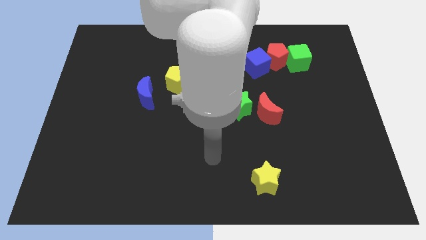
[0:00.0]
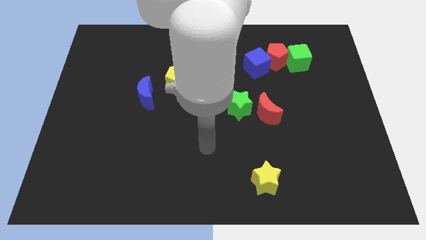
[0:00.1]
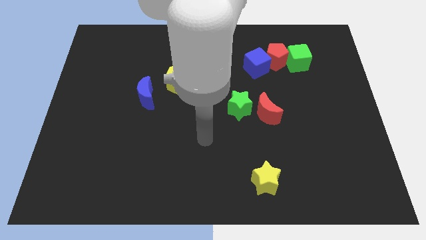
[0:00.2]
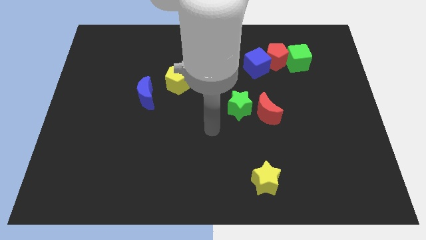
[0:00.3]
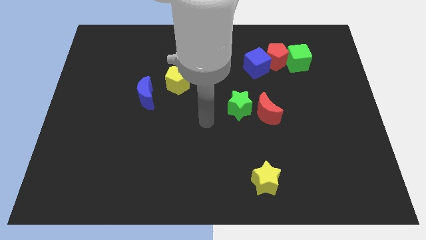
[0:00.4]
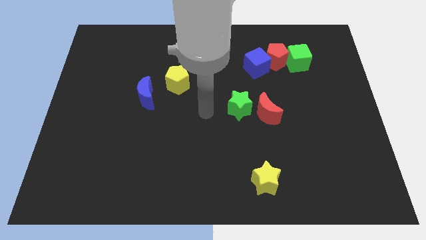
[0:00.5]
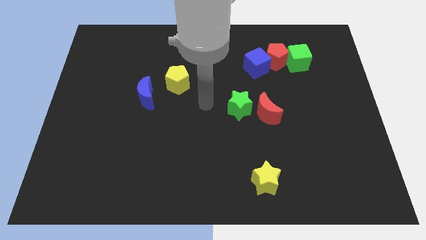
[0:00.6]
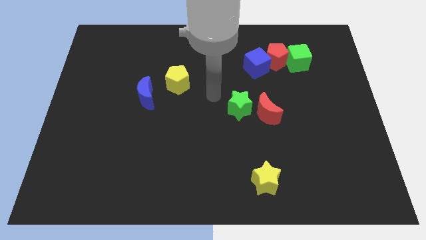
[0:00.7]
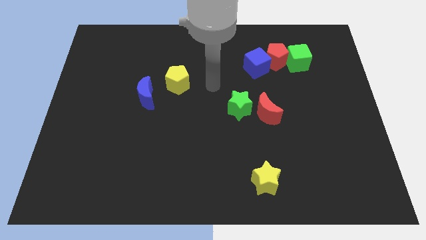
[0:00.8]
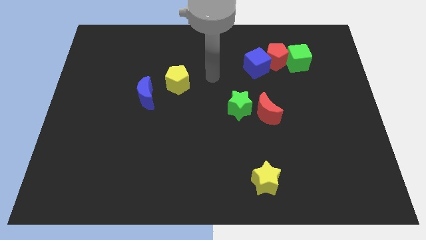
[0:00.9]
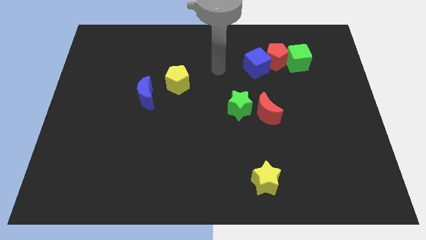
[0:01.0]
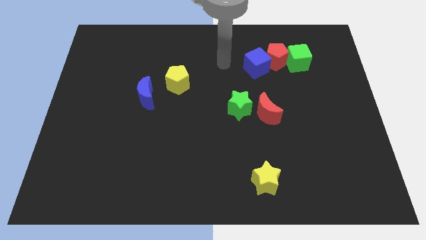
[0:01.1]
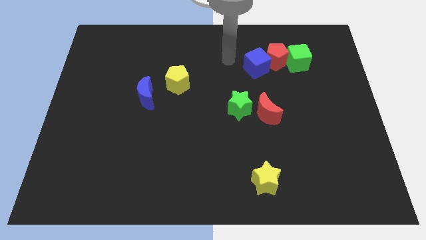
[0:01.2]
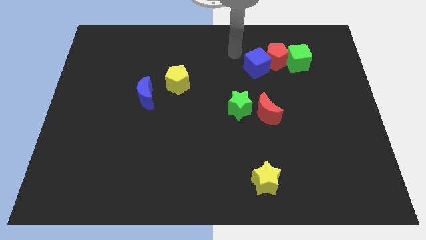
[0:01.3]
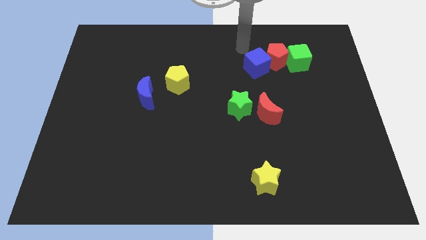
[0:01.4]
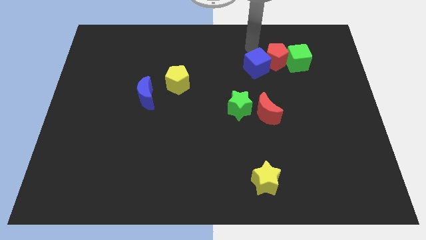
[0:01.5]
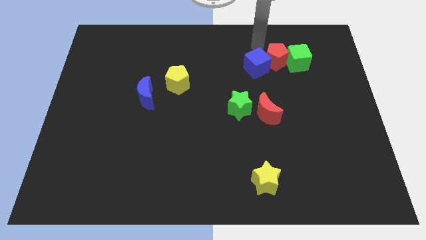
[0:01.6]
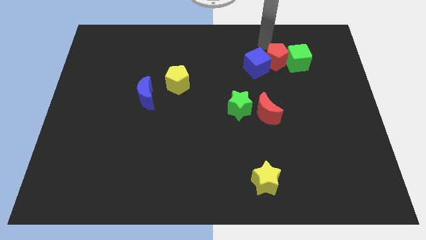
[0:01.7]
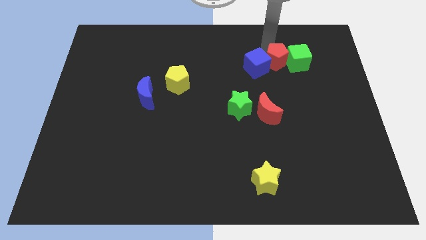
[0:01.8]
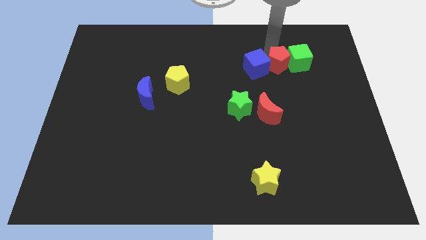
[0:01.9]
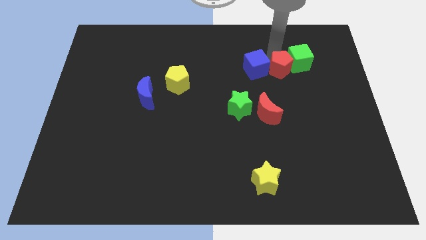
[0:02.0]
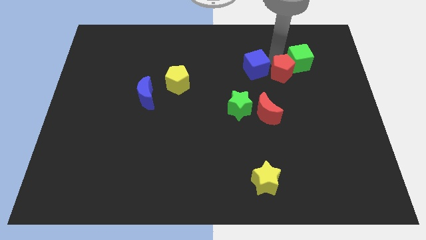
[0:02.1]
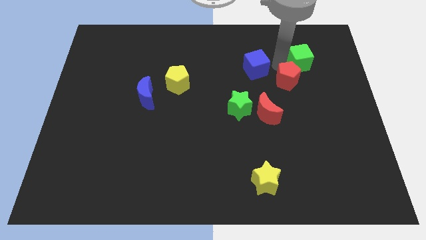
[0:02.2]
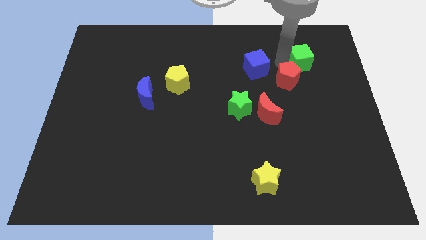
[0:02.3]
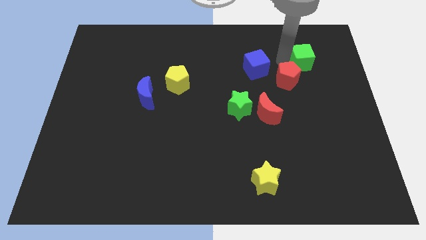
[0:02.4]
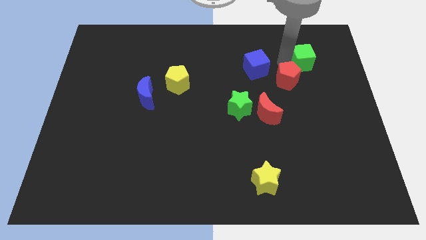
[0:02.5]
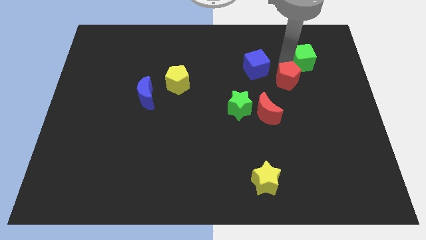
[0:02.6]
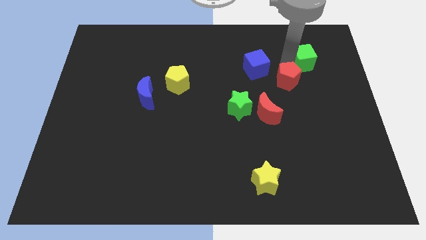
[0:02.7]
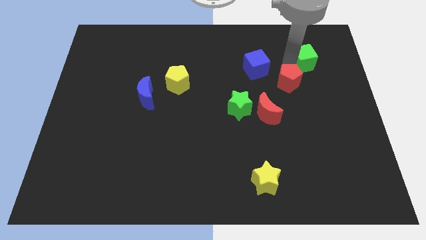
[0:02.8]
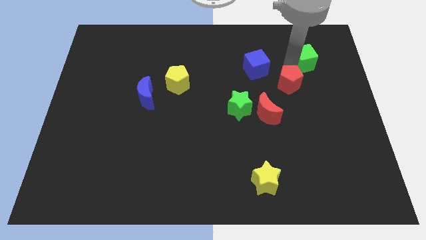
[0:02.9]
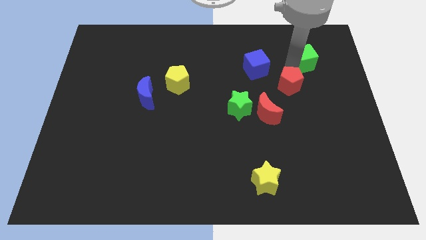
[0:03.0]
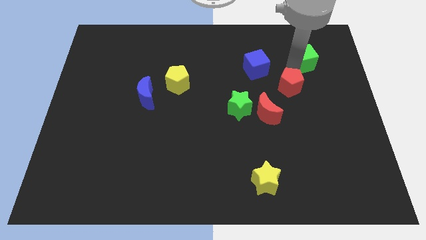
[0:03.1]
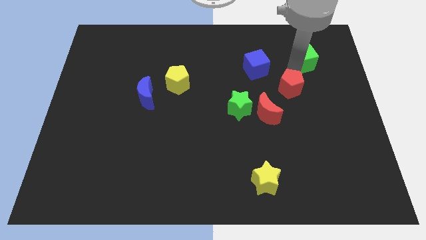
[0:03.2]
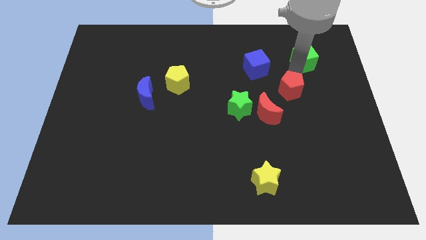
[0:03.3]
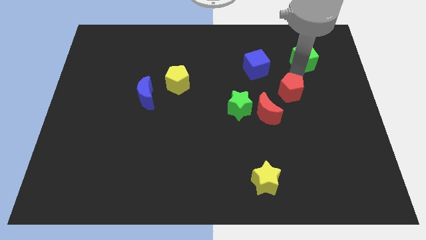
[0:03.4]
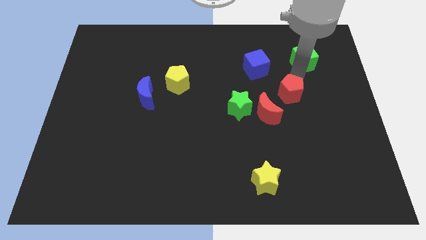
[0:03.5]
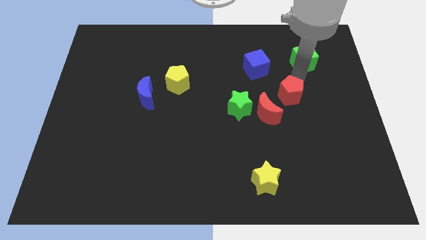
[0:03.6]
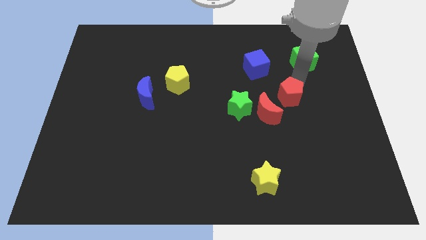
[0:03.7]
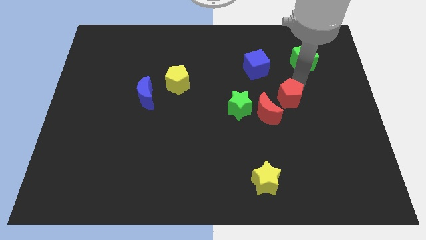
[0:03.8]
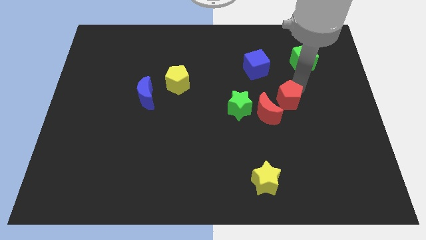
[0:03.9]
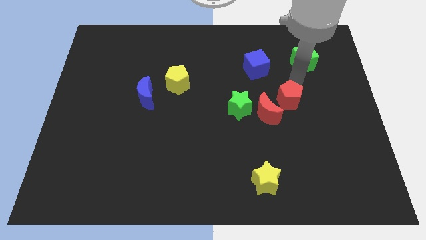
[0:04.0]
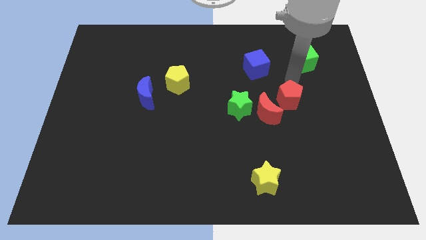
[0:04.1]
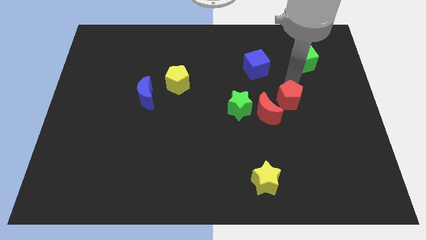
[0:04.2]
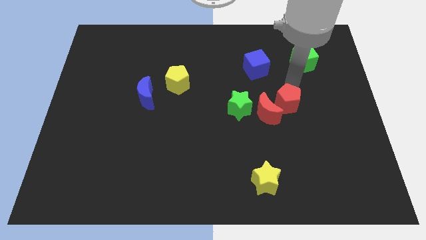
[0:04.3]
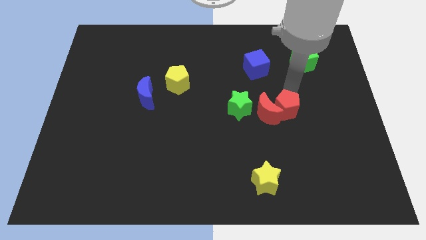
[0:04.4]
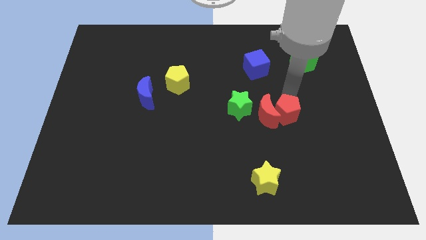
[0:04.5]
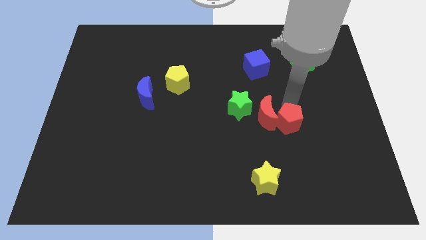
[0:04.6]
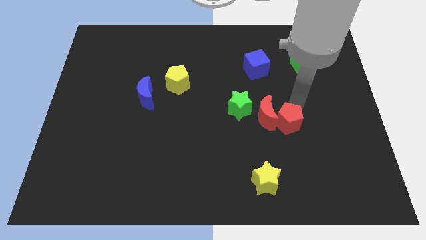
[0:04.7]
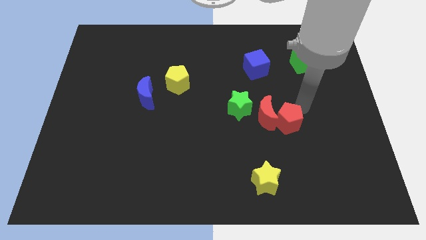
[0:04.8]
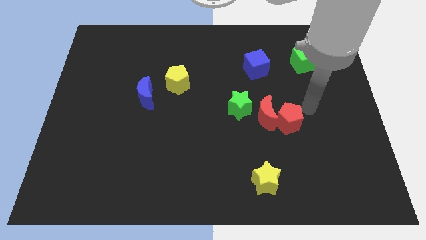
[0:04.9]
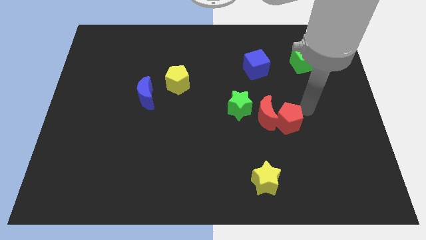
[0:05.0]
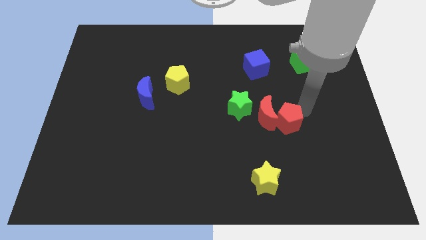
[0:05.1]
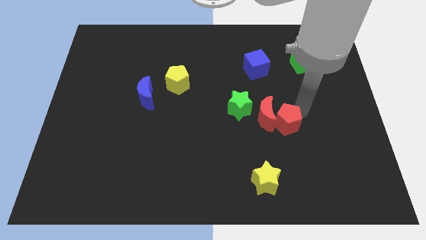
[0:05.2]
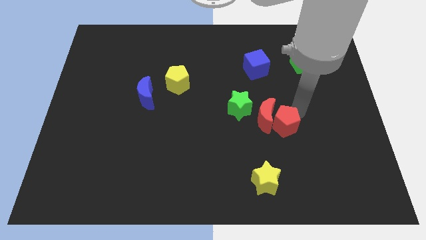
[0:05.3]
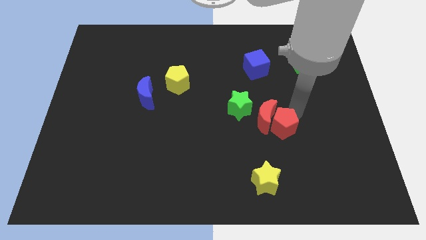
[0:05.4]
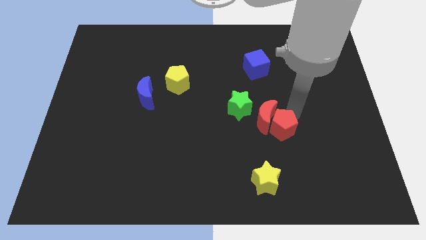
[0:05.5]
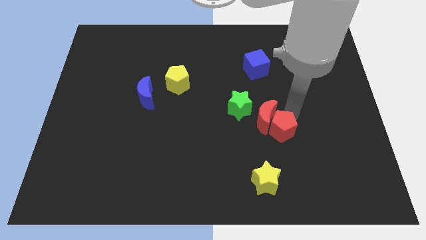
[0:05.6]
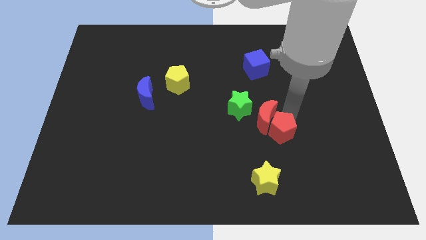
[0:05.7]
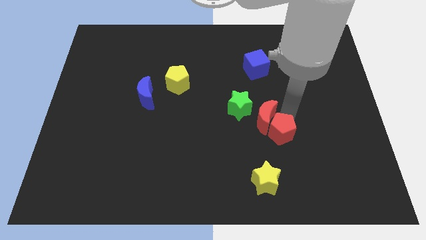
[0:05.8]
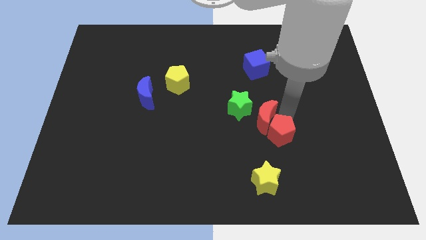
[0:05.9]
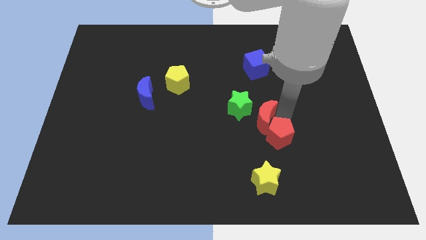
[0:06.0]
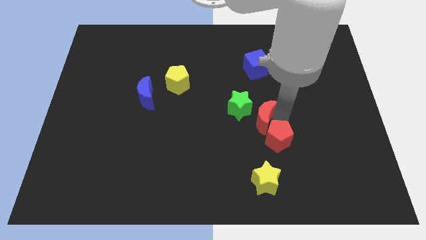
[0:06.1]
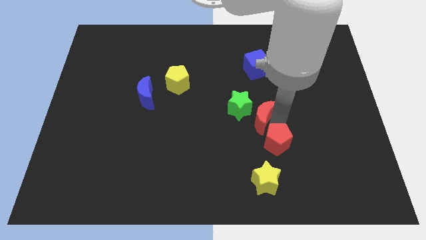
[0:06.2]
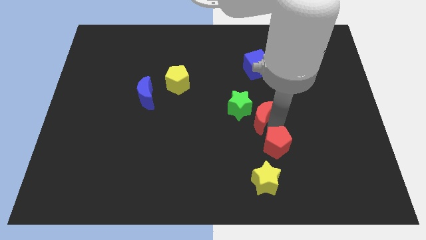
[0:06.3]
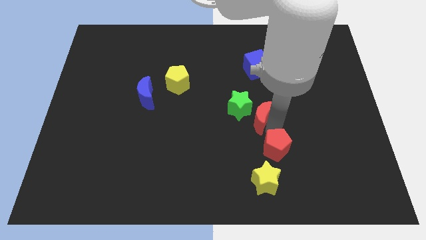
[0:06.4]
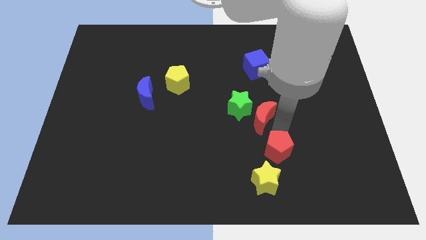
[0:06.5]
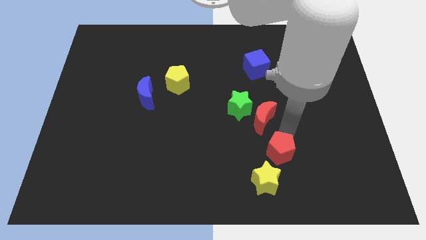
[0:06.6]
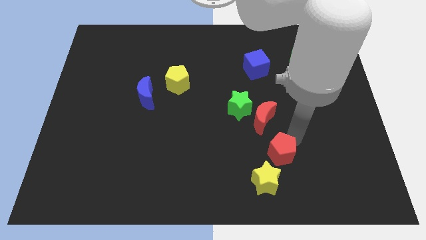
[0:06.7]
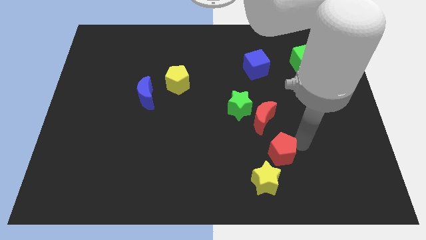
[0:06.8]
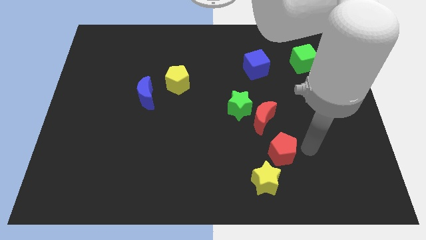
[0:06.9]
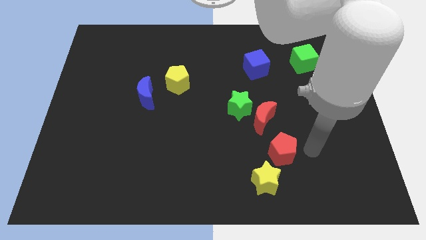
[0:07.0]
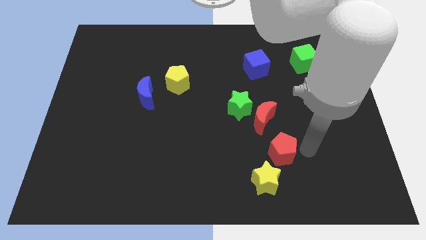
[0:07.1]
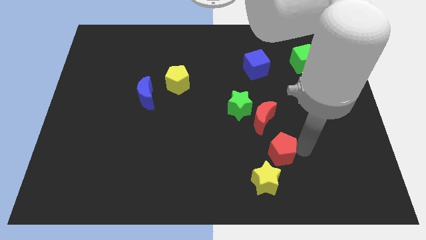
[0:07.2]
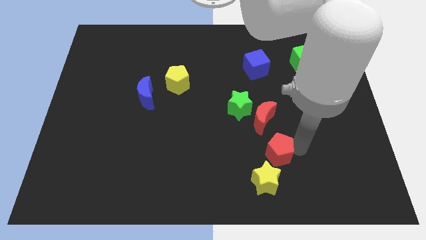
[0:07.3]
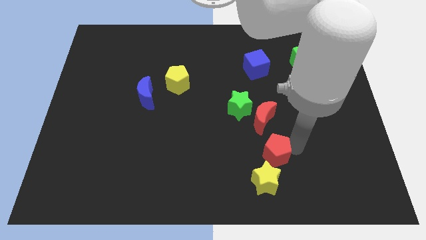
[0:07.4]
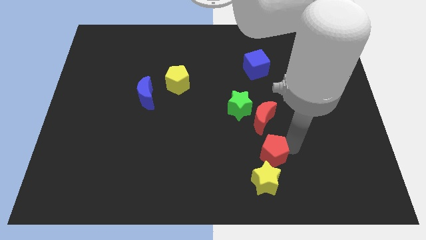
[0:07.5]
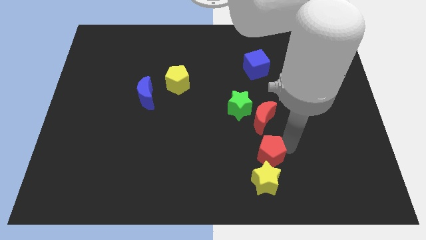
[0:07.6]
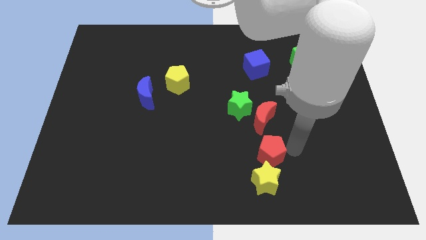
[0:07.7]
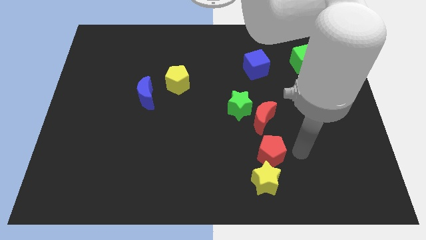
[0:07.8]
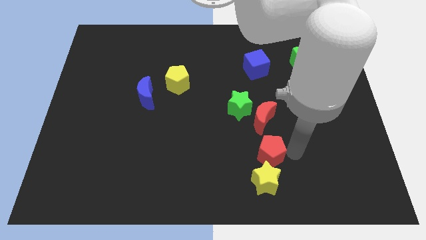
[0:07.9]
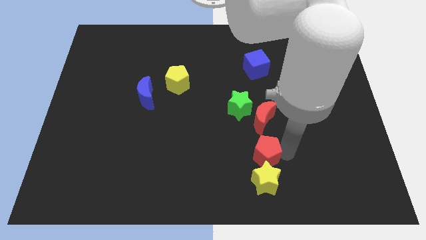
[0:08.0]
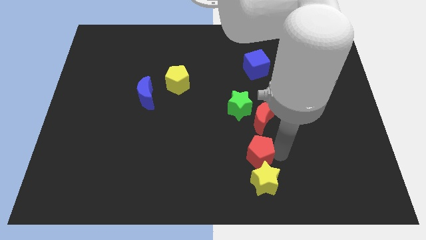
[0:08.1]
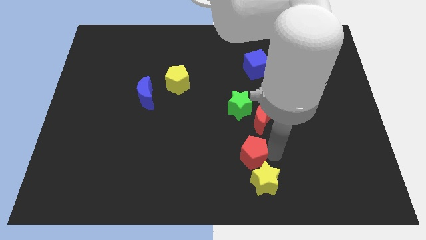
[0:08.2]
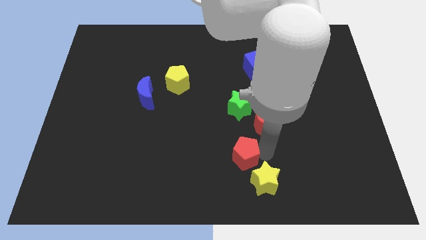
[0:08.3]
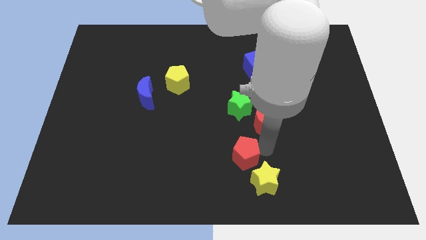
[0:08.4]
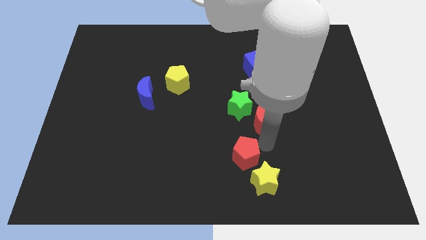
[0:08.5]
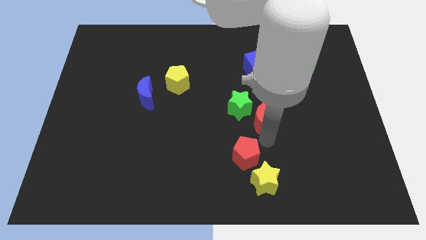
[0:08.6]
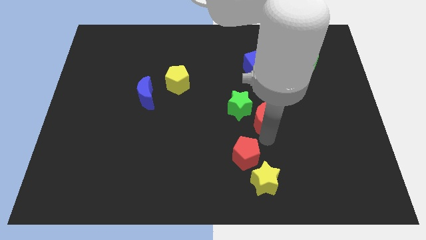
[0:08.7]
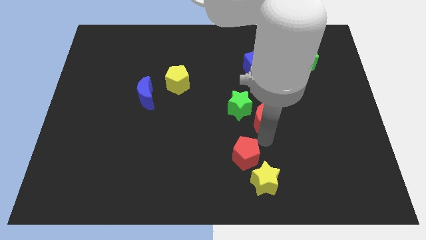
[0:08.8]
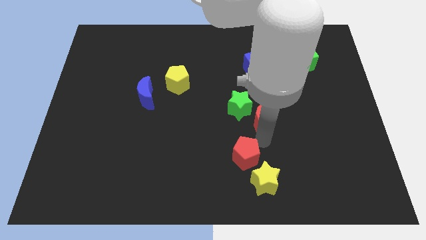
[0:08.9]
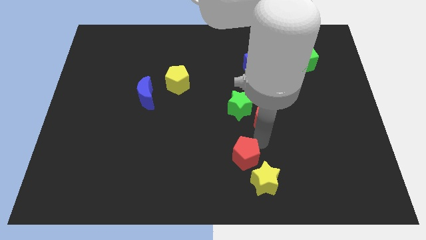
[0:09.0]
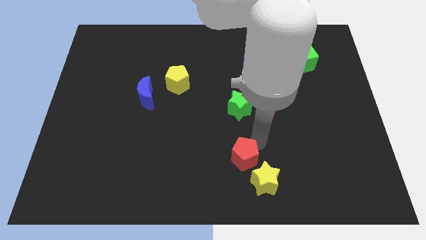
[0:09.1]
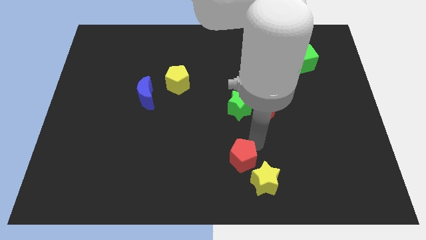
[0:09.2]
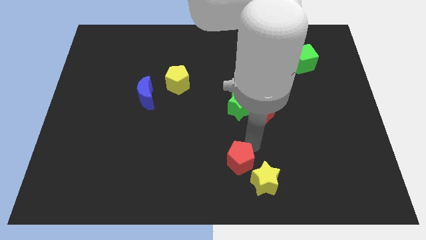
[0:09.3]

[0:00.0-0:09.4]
move the red pentagon left of the yellow star
